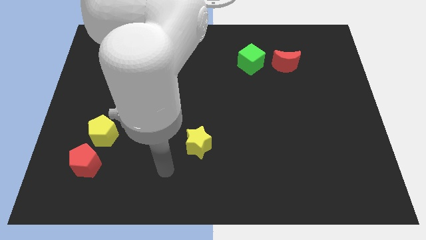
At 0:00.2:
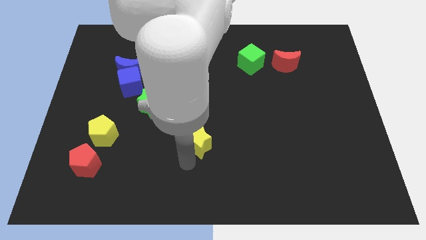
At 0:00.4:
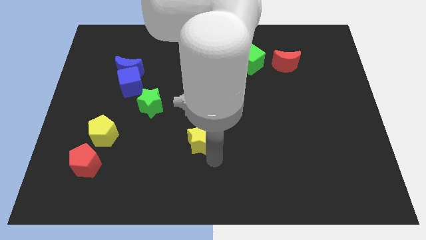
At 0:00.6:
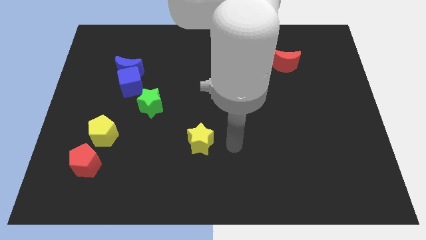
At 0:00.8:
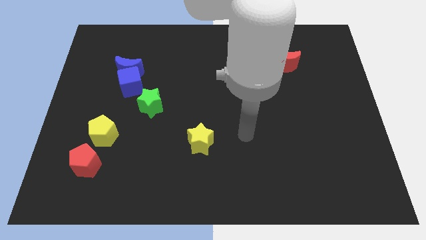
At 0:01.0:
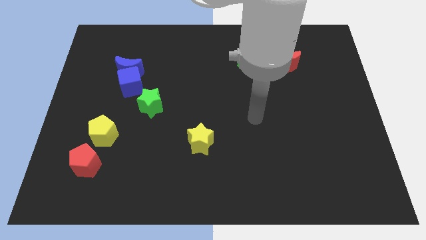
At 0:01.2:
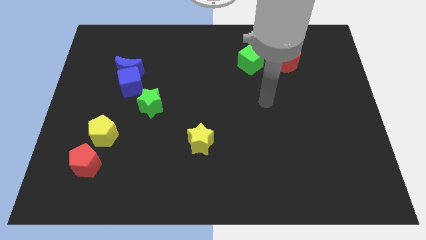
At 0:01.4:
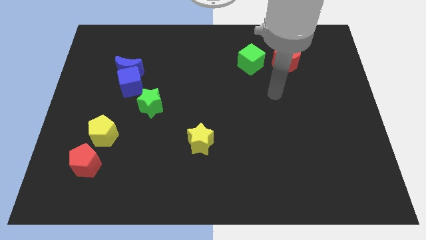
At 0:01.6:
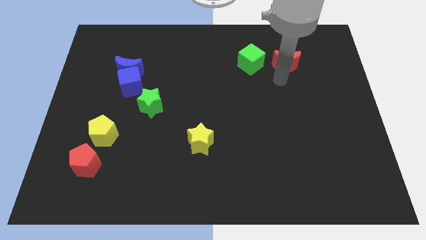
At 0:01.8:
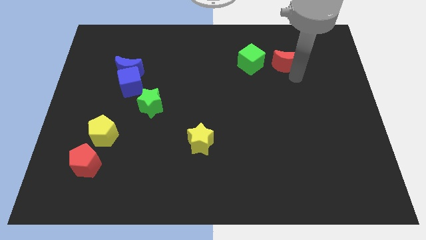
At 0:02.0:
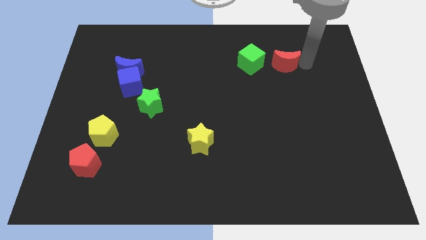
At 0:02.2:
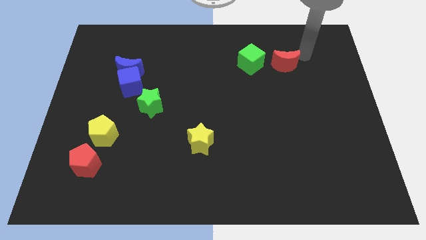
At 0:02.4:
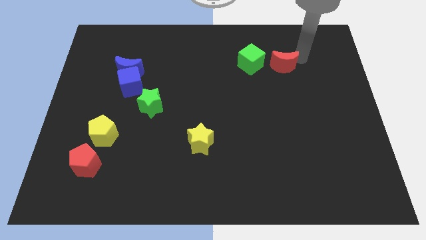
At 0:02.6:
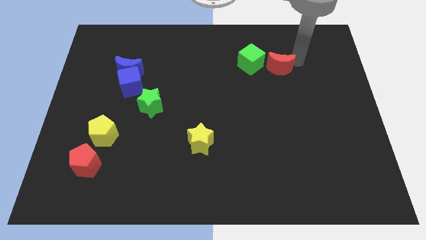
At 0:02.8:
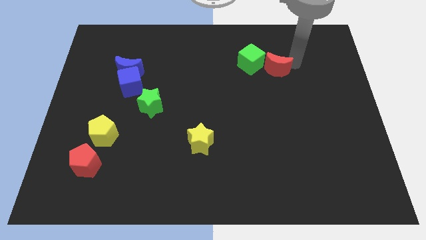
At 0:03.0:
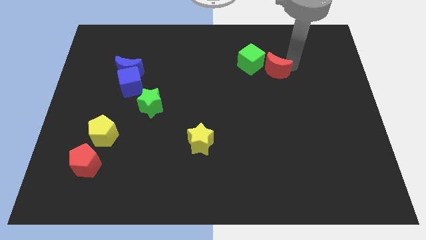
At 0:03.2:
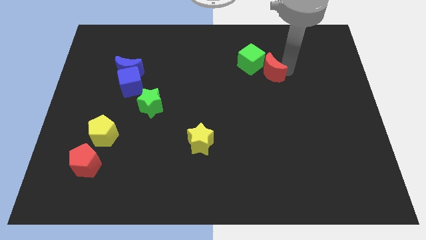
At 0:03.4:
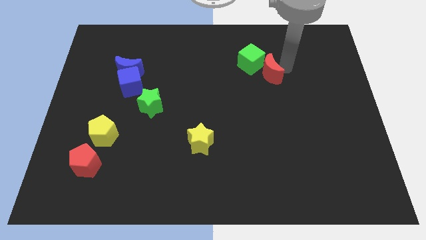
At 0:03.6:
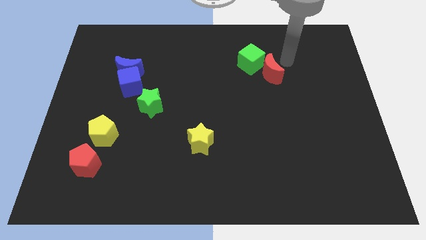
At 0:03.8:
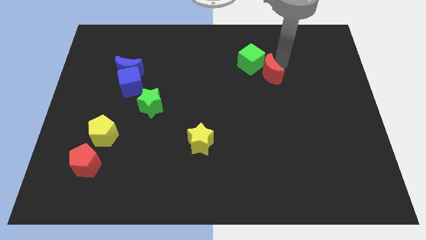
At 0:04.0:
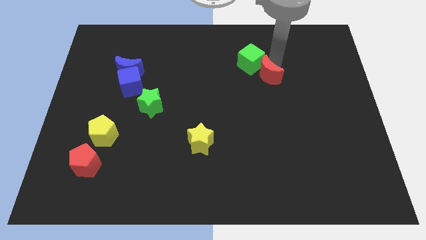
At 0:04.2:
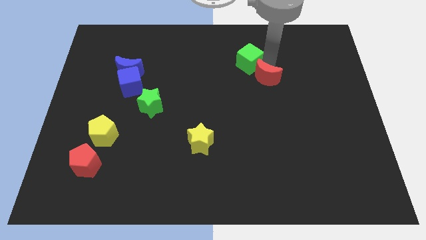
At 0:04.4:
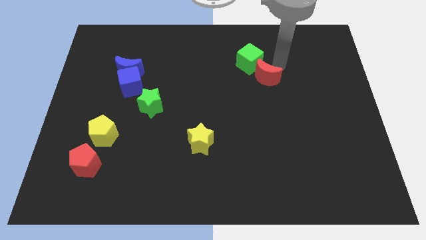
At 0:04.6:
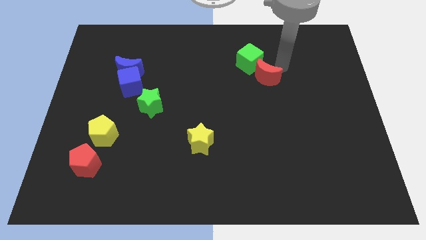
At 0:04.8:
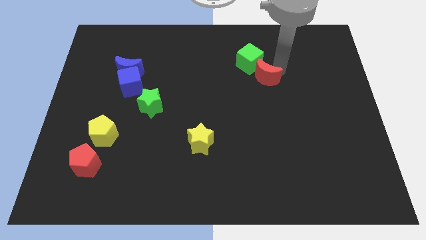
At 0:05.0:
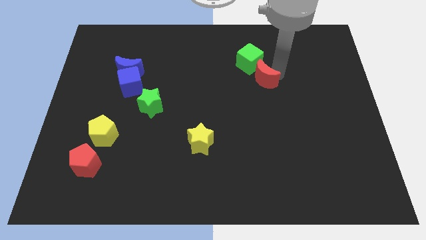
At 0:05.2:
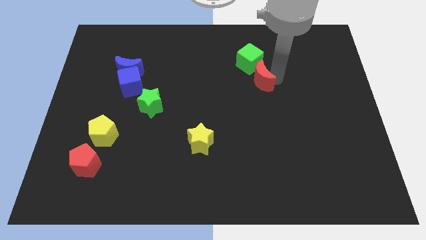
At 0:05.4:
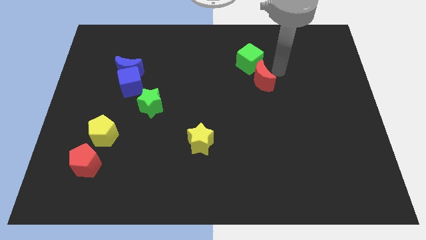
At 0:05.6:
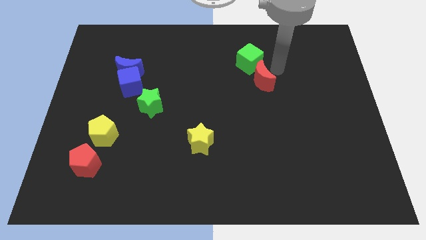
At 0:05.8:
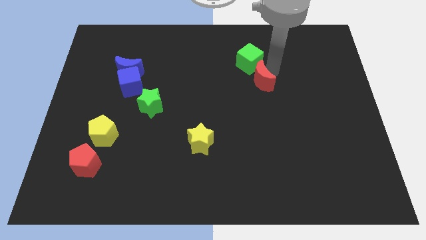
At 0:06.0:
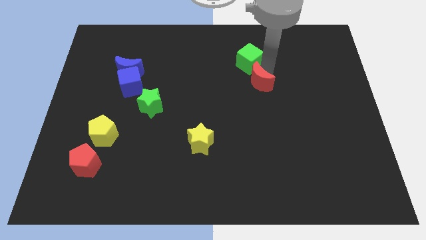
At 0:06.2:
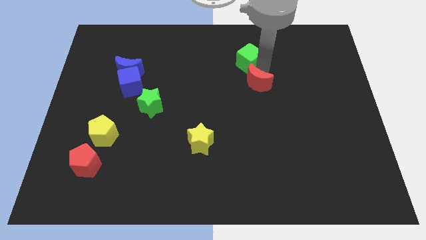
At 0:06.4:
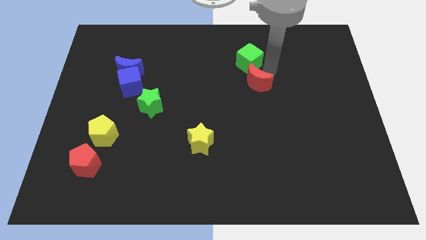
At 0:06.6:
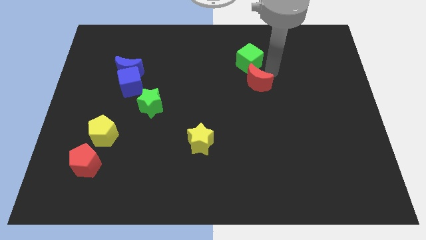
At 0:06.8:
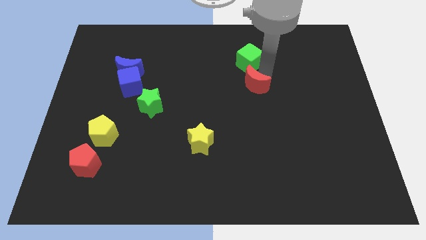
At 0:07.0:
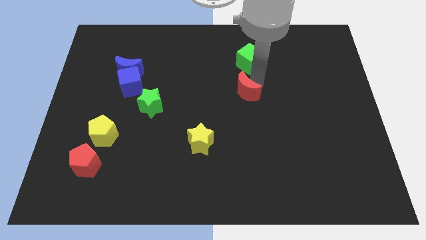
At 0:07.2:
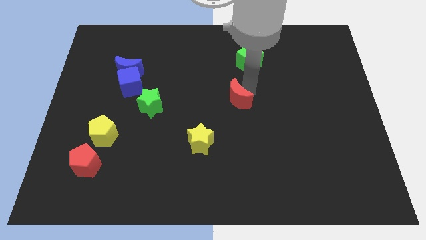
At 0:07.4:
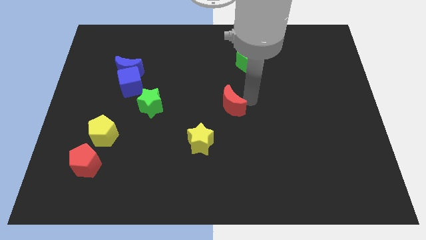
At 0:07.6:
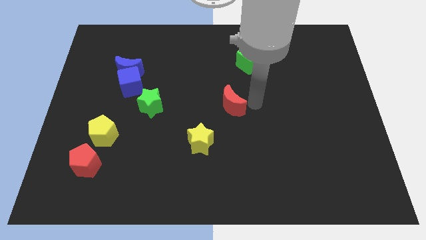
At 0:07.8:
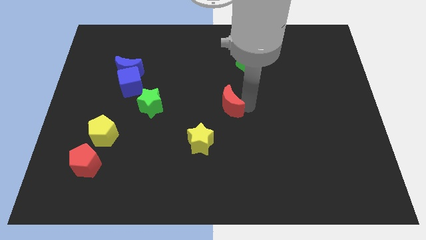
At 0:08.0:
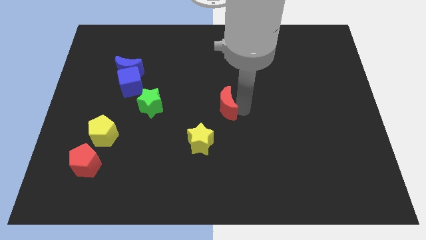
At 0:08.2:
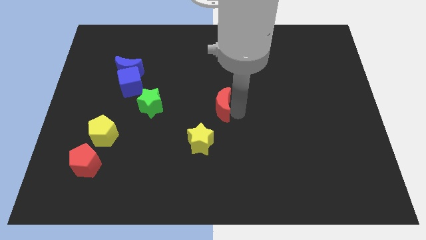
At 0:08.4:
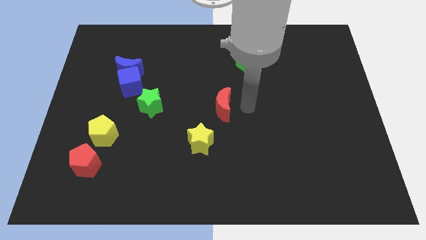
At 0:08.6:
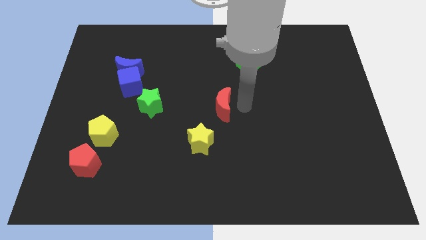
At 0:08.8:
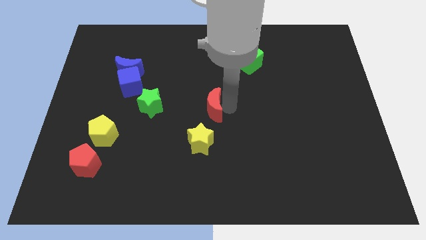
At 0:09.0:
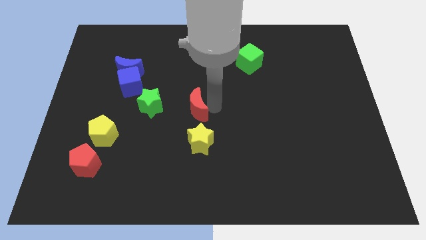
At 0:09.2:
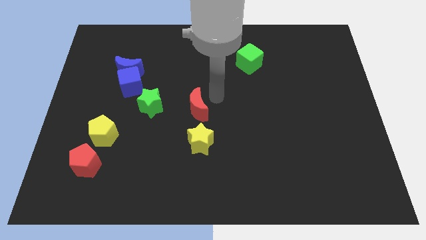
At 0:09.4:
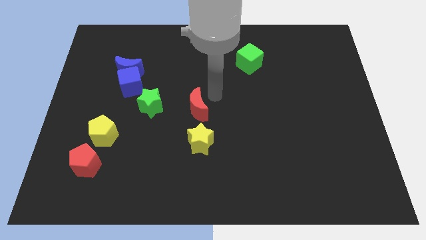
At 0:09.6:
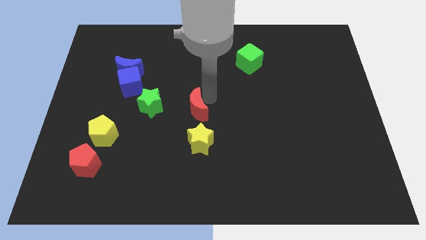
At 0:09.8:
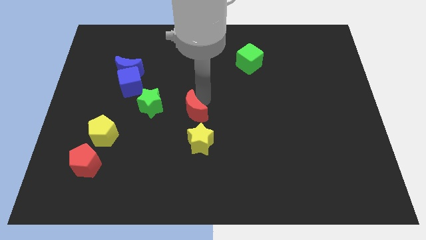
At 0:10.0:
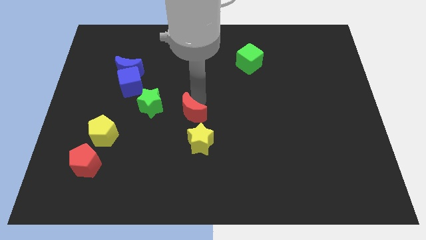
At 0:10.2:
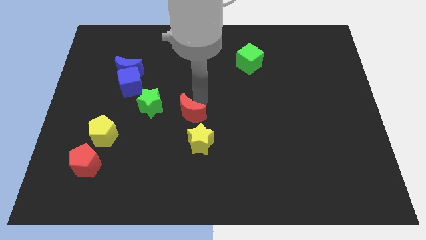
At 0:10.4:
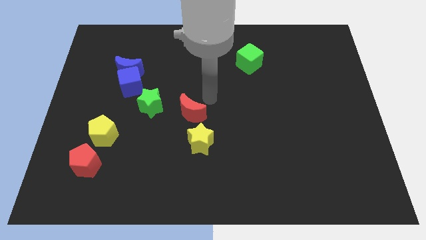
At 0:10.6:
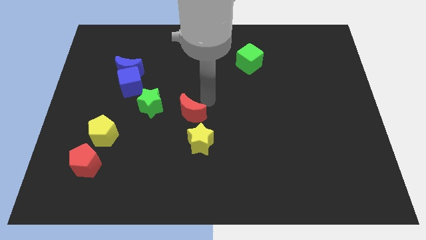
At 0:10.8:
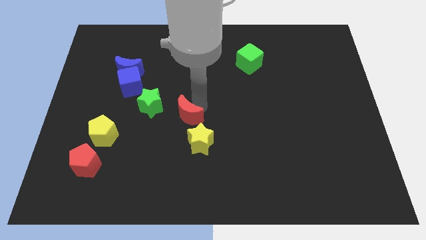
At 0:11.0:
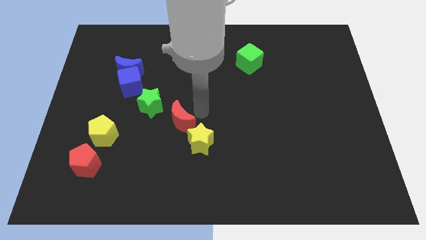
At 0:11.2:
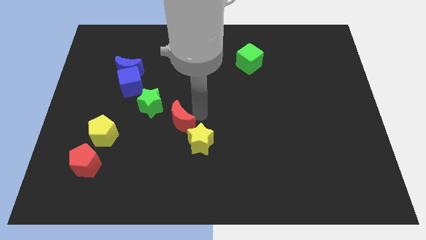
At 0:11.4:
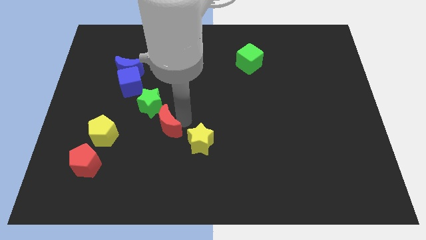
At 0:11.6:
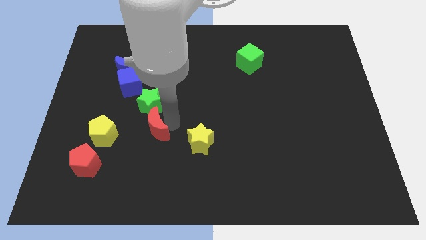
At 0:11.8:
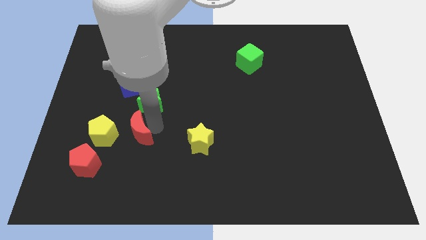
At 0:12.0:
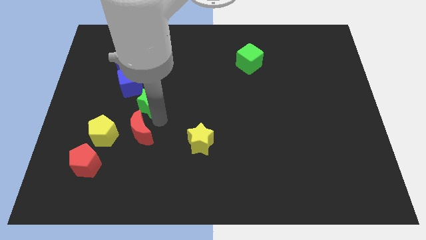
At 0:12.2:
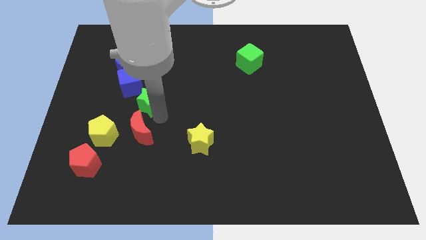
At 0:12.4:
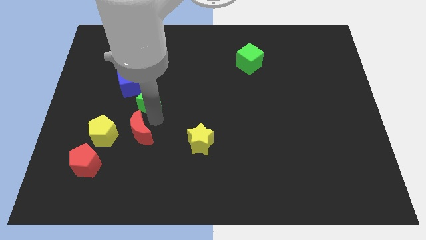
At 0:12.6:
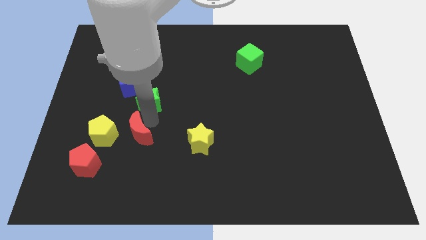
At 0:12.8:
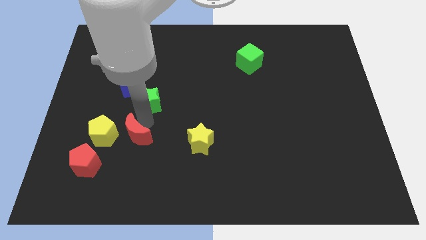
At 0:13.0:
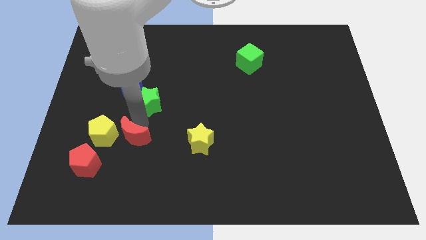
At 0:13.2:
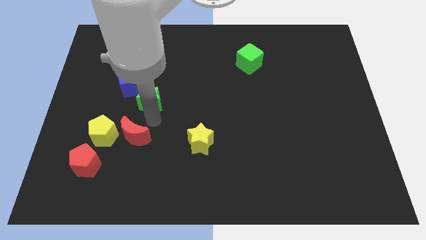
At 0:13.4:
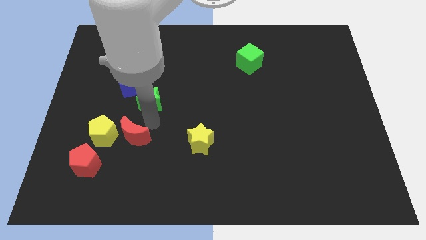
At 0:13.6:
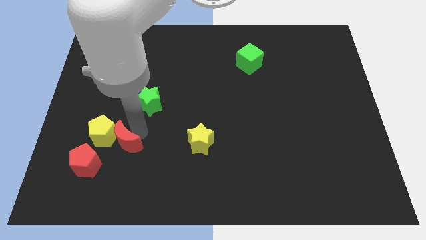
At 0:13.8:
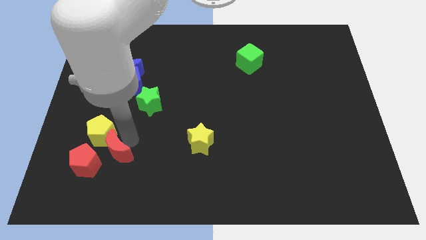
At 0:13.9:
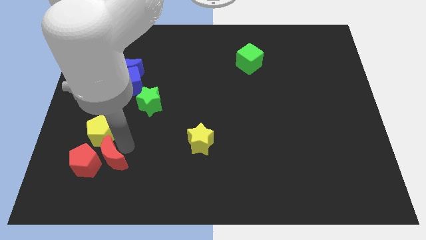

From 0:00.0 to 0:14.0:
put the red moon next to the red pentagon

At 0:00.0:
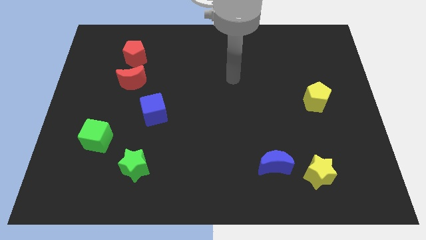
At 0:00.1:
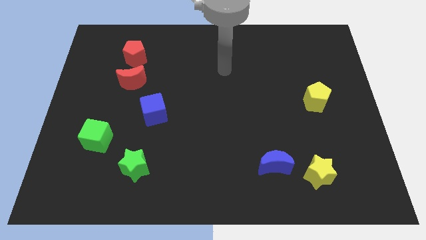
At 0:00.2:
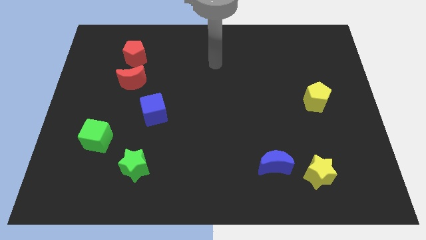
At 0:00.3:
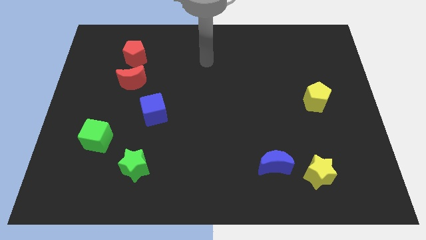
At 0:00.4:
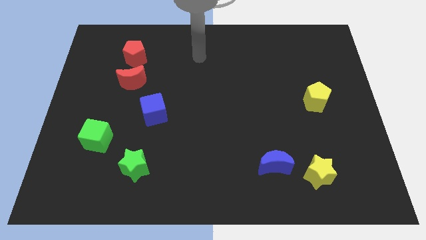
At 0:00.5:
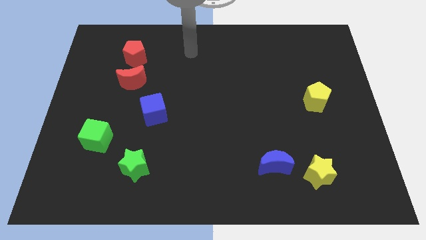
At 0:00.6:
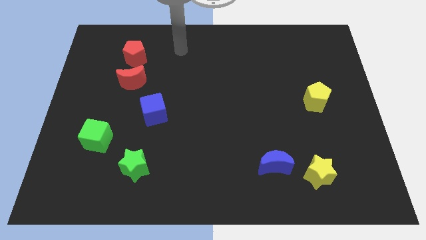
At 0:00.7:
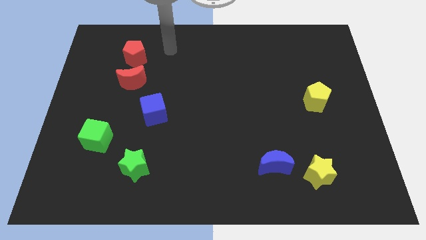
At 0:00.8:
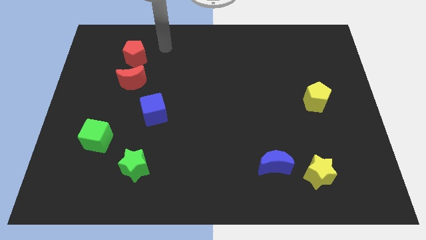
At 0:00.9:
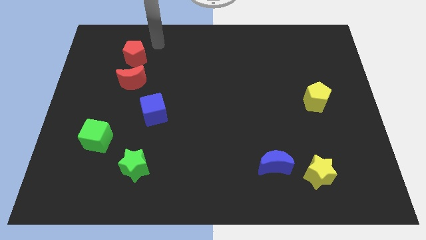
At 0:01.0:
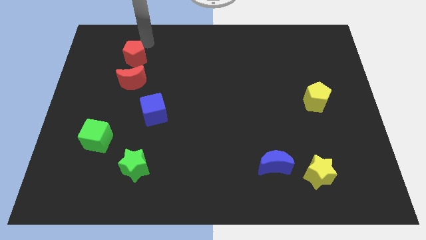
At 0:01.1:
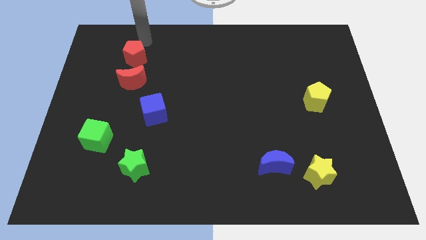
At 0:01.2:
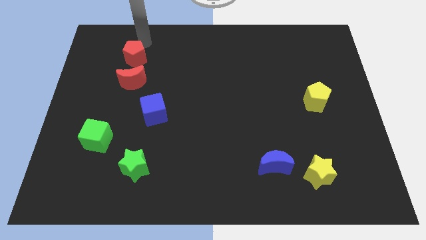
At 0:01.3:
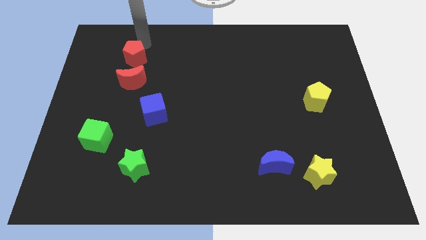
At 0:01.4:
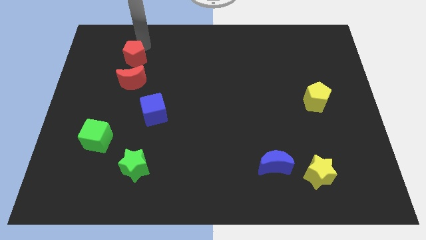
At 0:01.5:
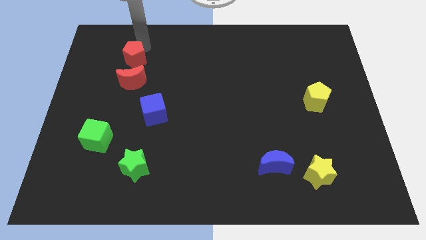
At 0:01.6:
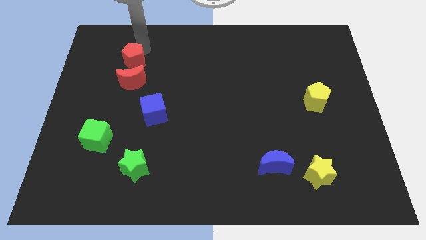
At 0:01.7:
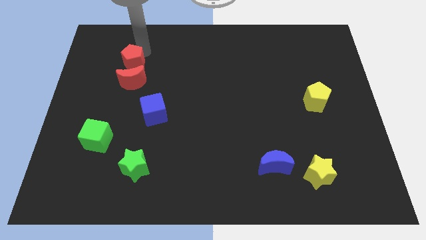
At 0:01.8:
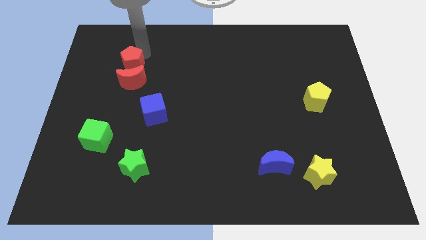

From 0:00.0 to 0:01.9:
put the red pentagon close to the red moon
